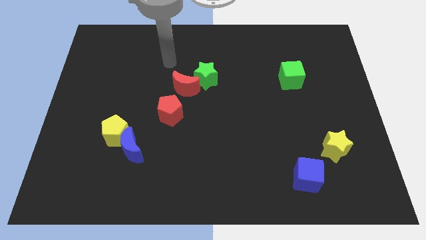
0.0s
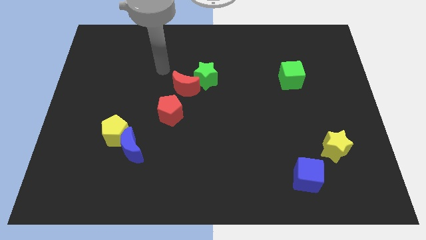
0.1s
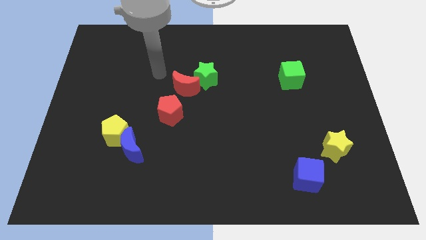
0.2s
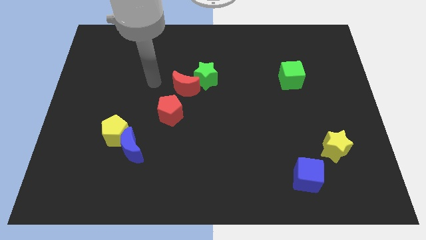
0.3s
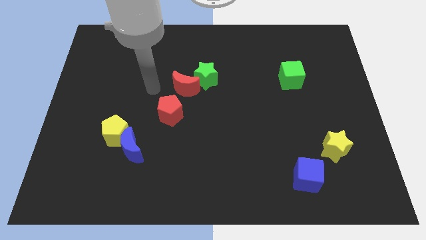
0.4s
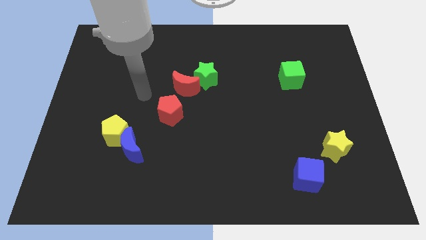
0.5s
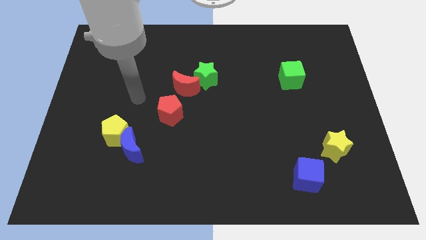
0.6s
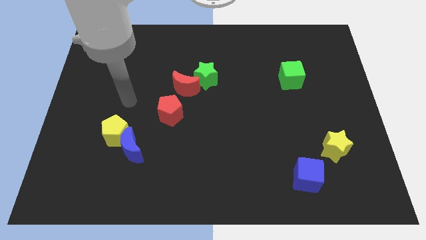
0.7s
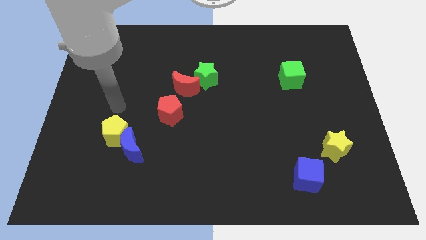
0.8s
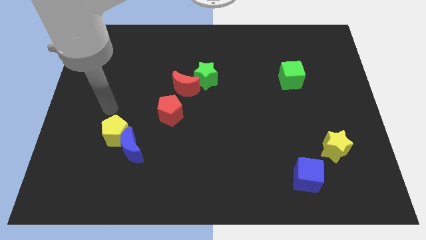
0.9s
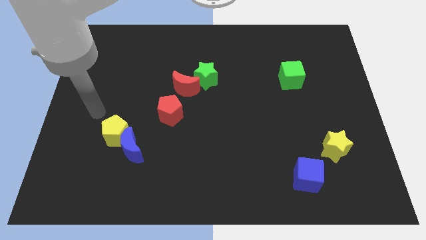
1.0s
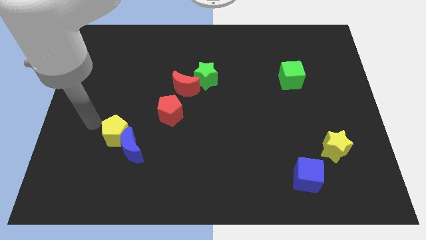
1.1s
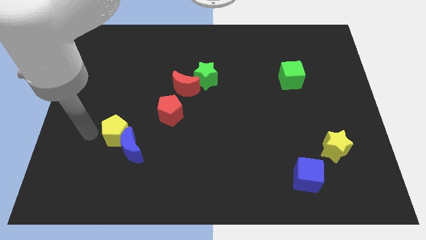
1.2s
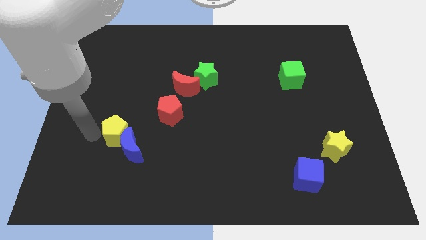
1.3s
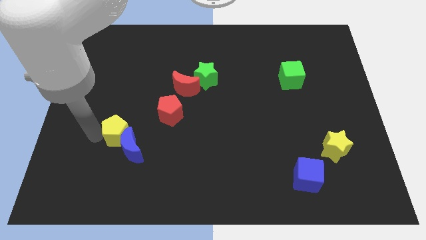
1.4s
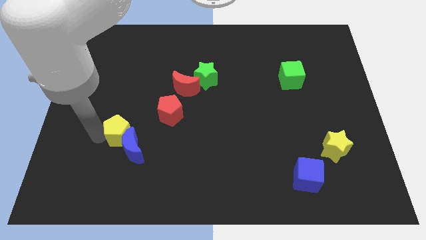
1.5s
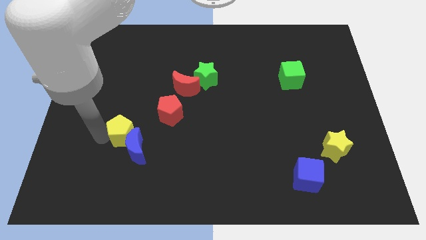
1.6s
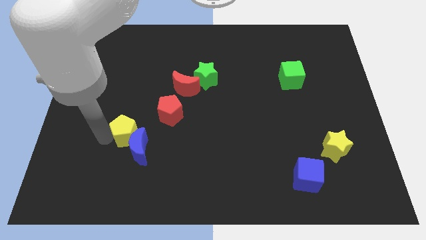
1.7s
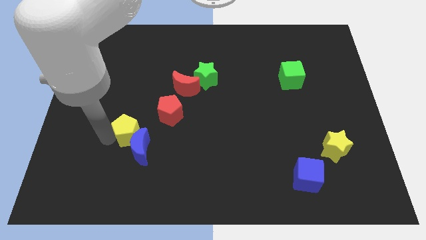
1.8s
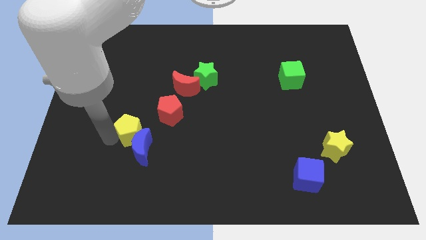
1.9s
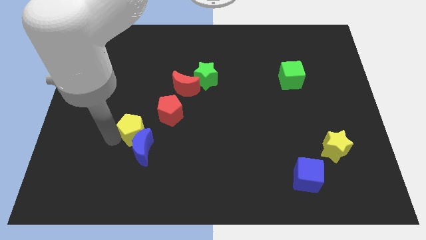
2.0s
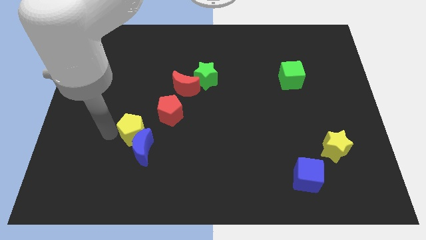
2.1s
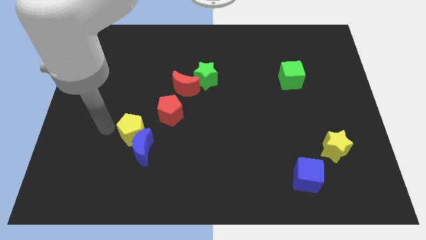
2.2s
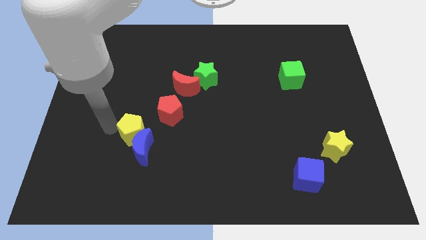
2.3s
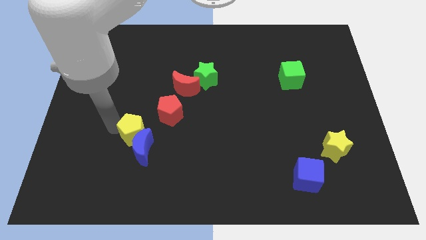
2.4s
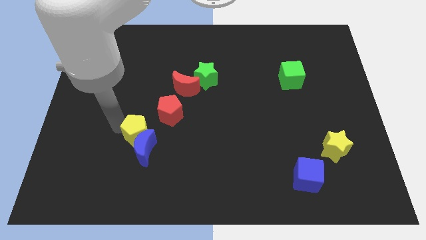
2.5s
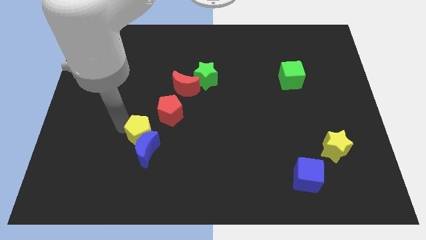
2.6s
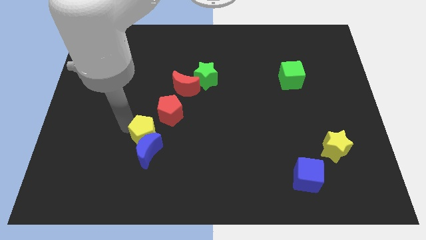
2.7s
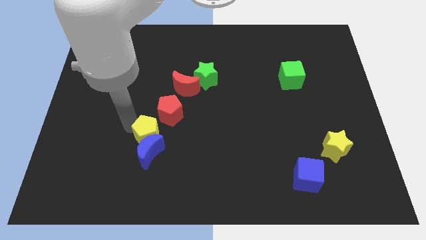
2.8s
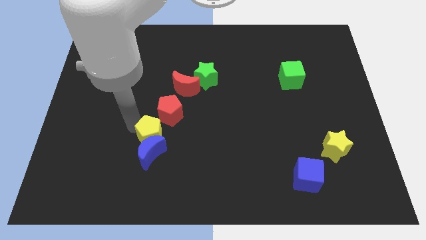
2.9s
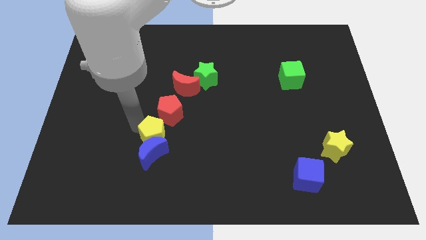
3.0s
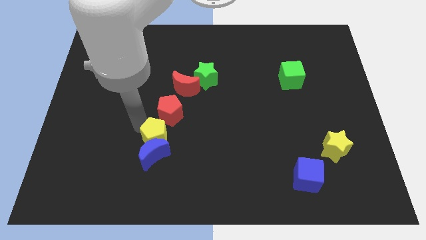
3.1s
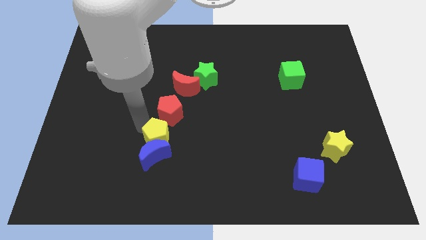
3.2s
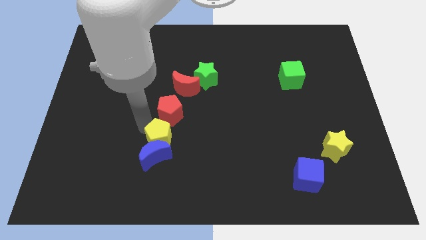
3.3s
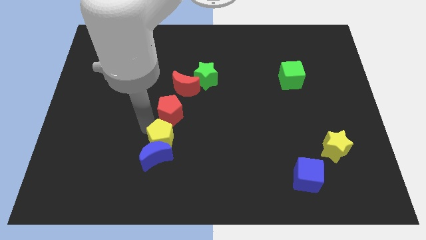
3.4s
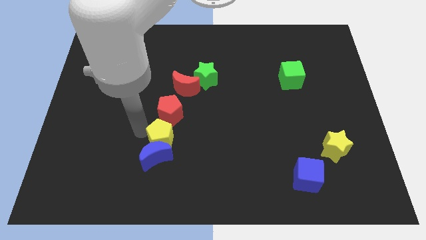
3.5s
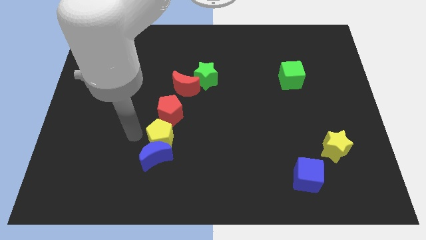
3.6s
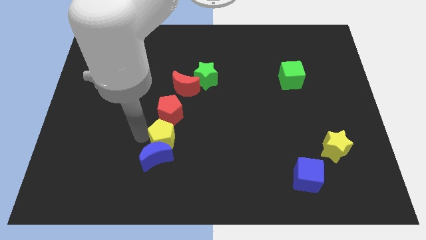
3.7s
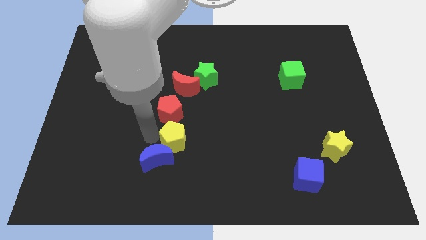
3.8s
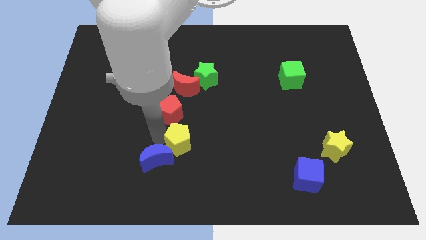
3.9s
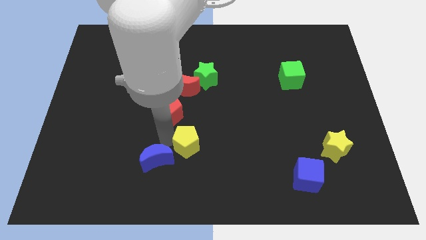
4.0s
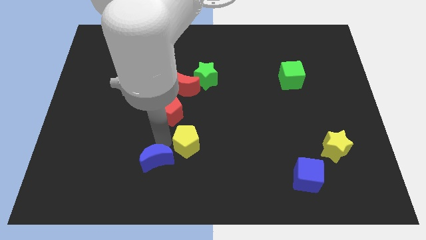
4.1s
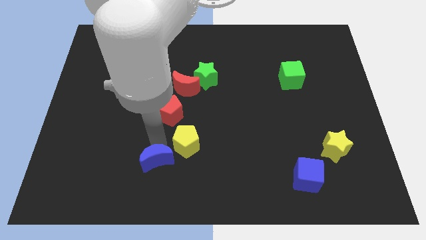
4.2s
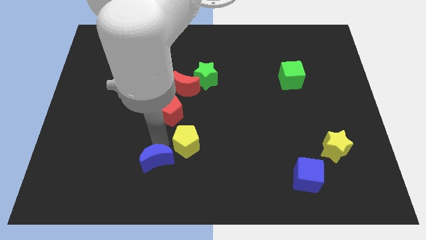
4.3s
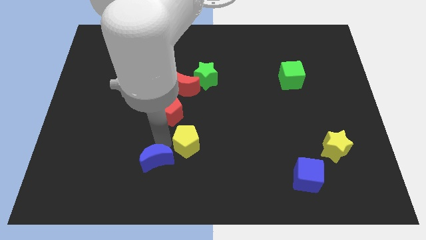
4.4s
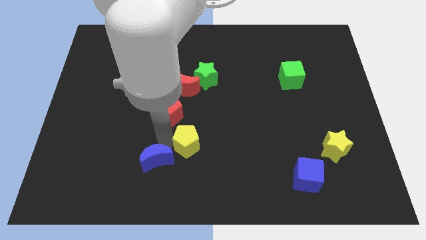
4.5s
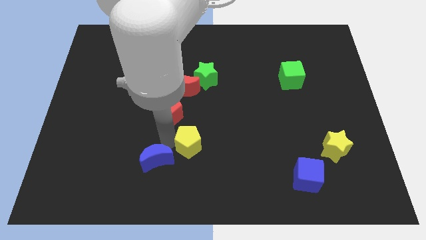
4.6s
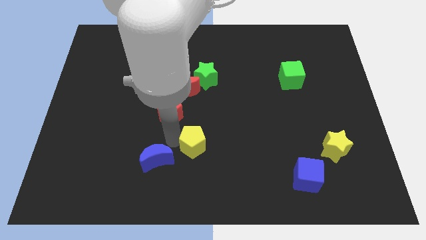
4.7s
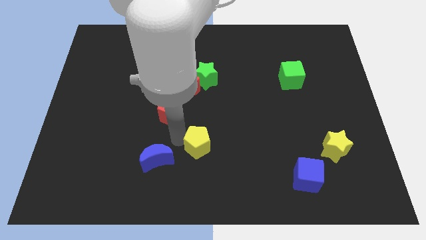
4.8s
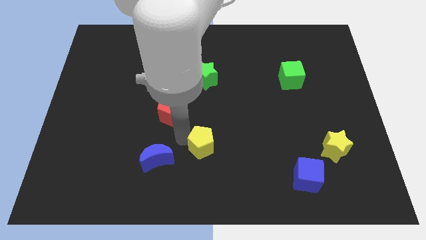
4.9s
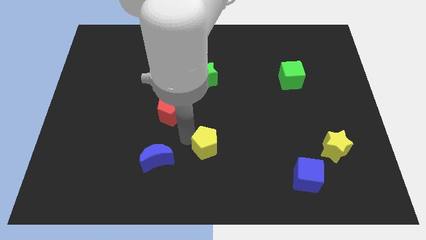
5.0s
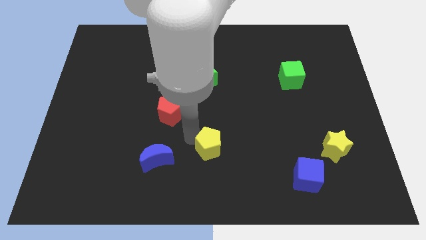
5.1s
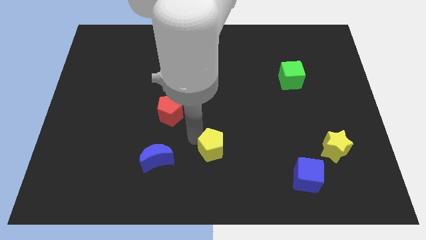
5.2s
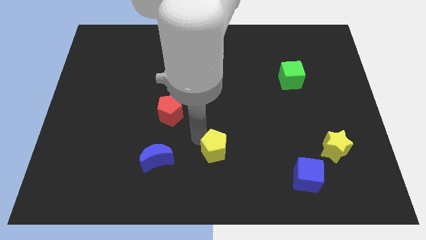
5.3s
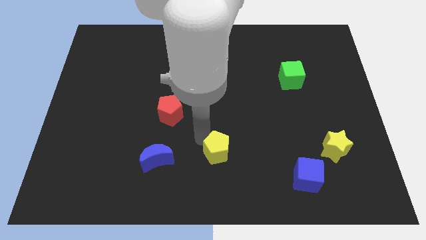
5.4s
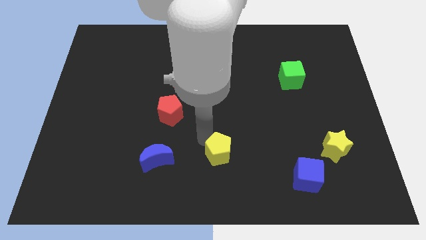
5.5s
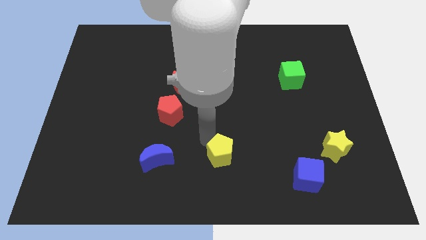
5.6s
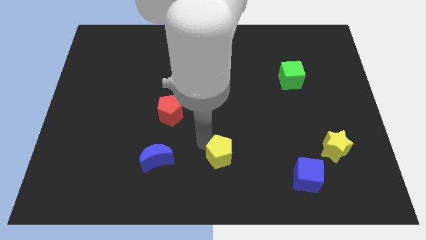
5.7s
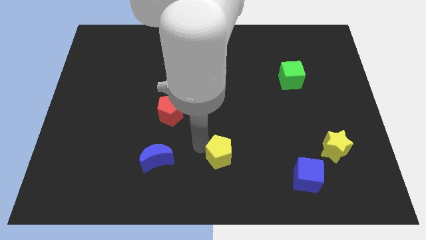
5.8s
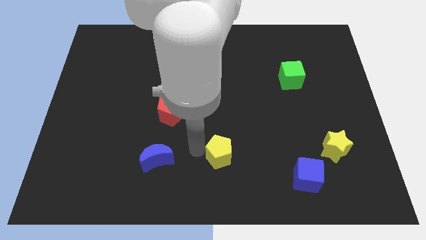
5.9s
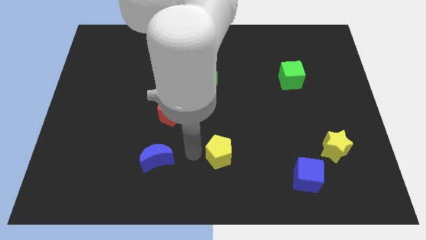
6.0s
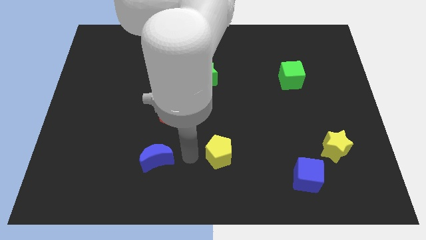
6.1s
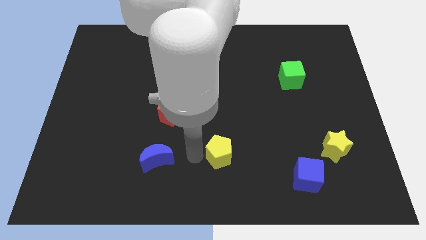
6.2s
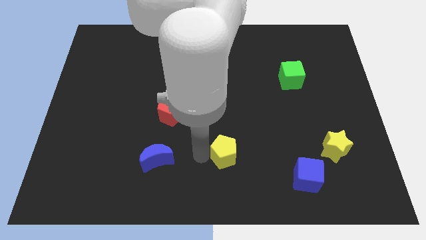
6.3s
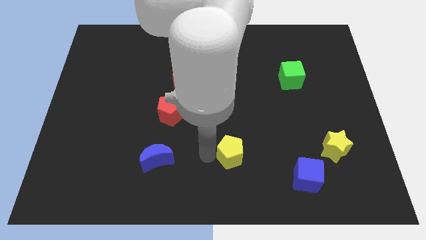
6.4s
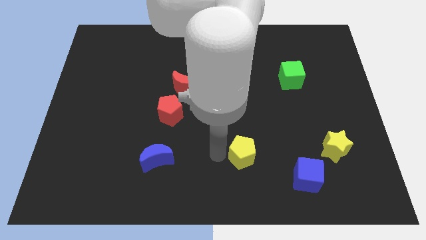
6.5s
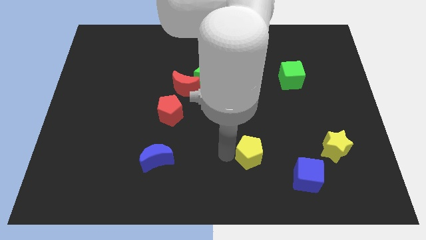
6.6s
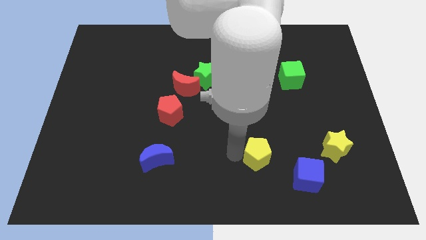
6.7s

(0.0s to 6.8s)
put the yellow pentagon diagonally up and to the left of the blue cube
